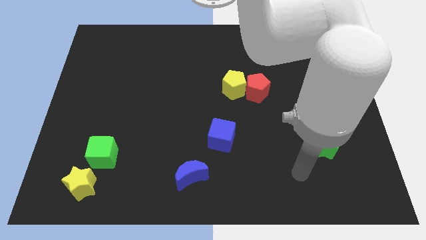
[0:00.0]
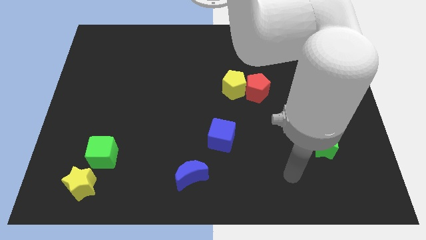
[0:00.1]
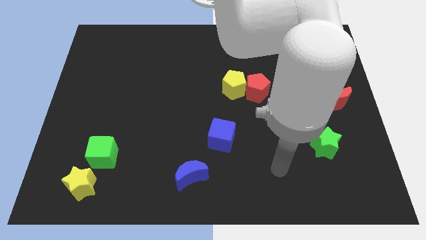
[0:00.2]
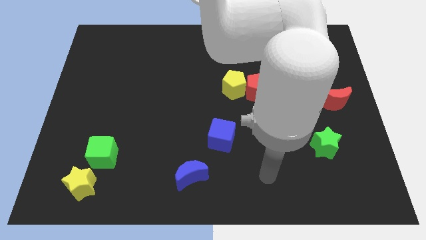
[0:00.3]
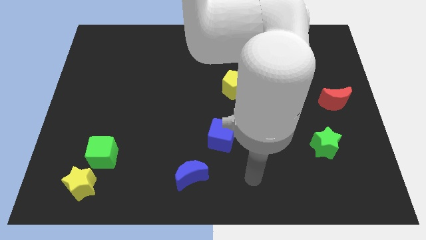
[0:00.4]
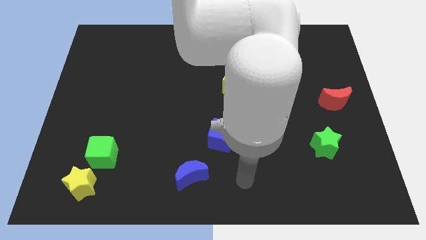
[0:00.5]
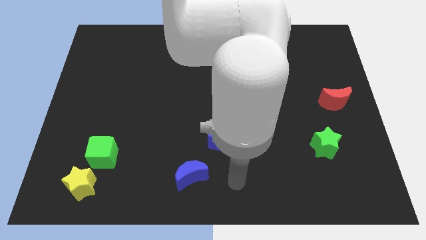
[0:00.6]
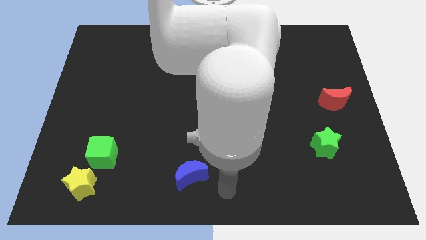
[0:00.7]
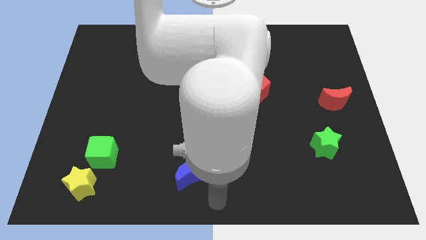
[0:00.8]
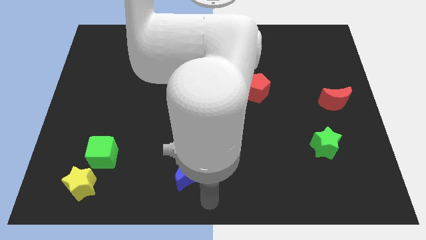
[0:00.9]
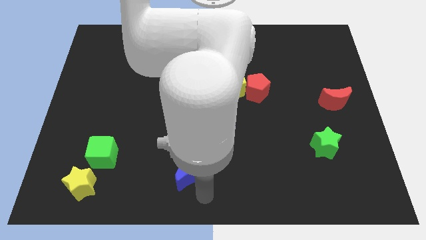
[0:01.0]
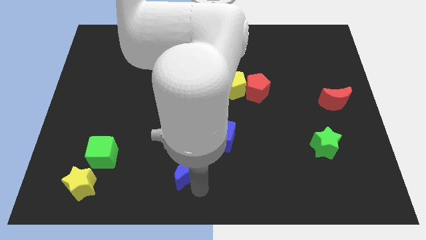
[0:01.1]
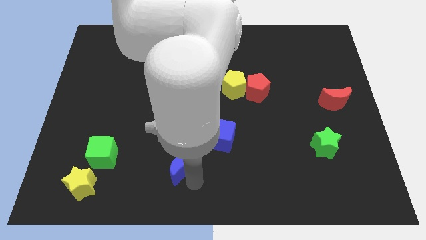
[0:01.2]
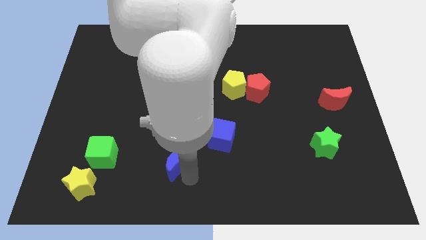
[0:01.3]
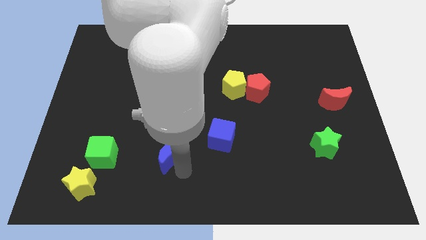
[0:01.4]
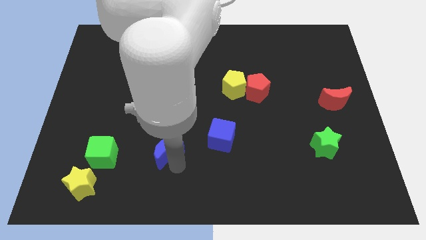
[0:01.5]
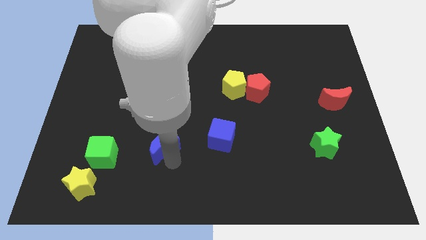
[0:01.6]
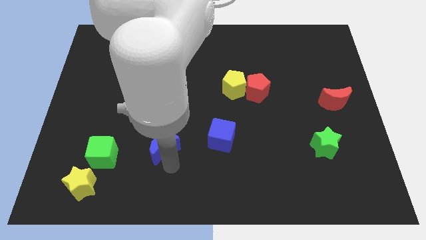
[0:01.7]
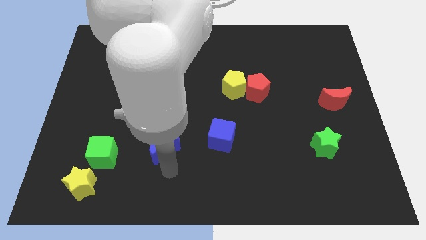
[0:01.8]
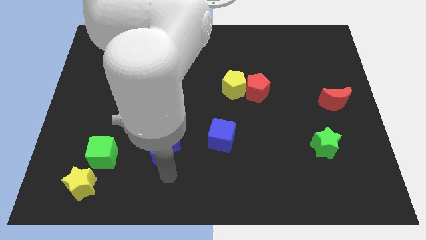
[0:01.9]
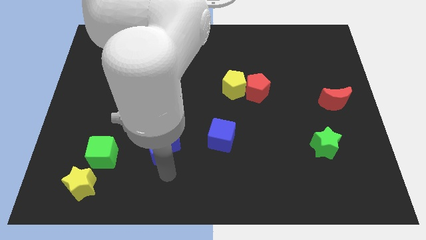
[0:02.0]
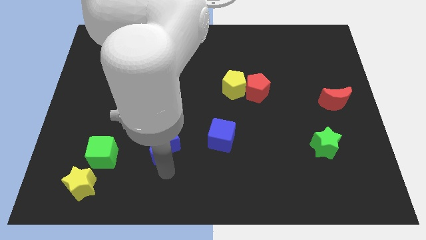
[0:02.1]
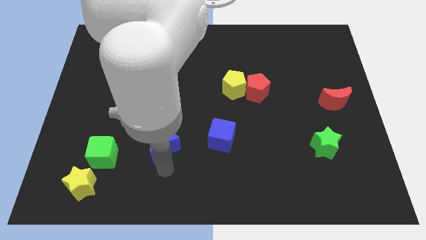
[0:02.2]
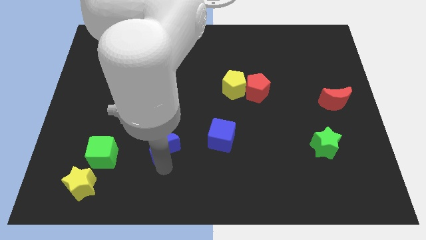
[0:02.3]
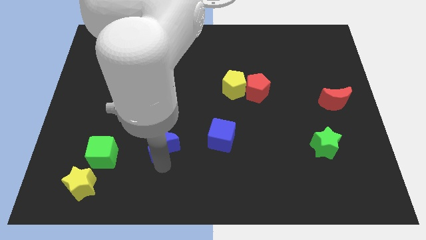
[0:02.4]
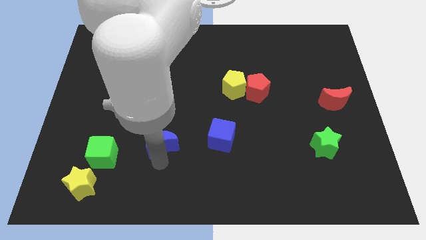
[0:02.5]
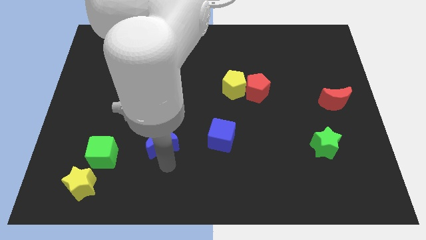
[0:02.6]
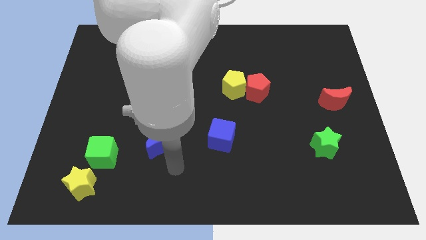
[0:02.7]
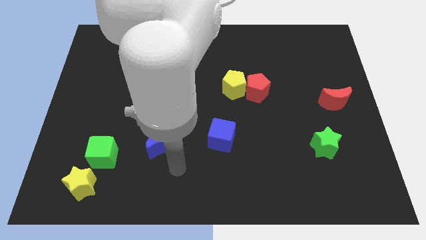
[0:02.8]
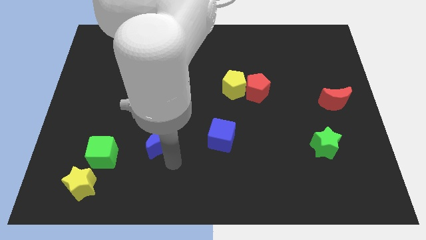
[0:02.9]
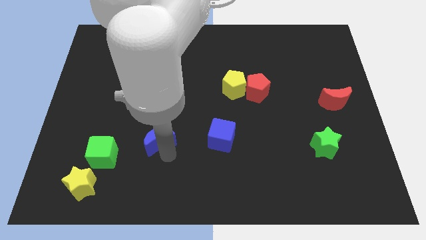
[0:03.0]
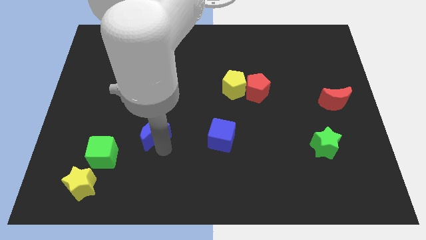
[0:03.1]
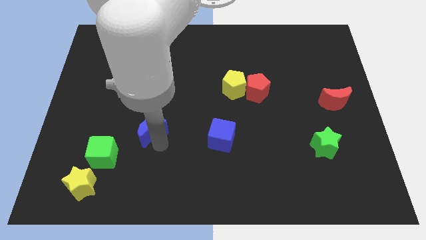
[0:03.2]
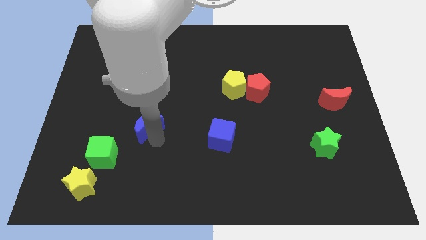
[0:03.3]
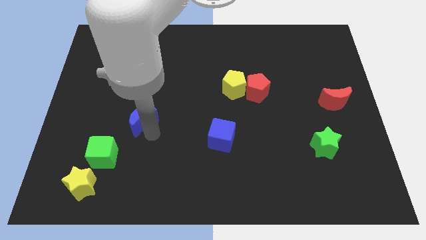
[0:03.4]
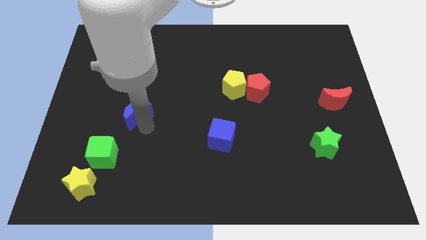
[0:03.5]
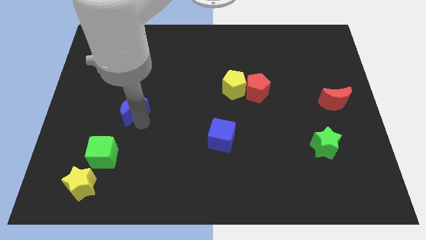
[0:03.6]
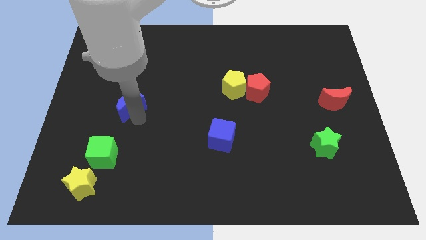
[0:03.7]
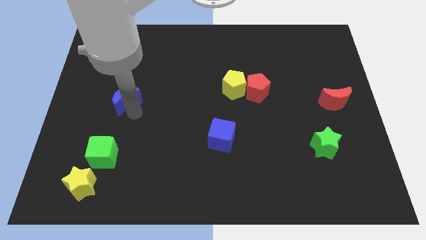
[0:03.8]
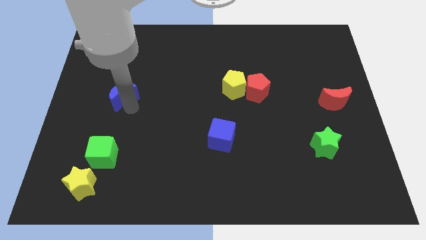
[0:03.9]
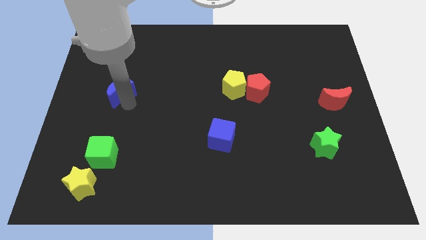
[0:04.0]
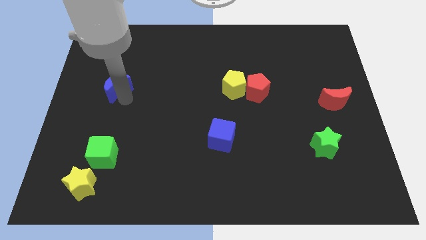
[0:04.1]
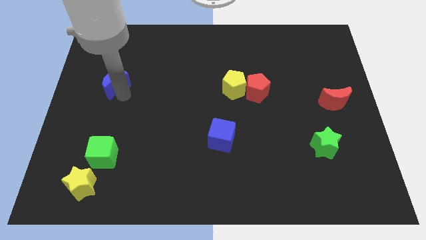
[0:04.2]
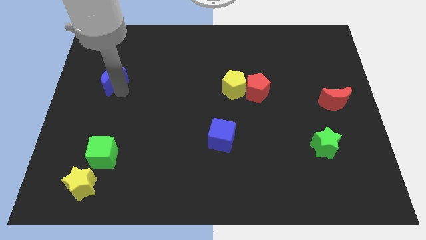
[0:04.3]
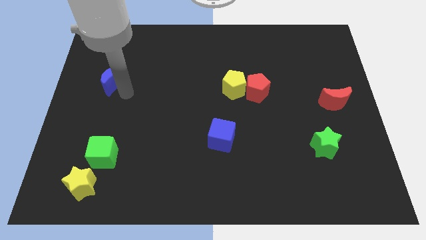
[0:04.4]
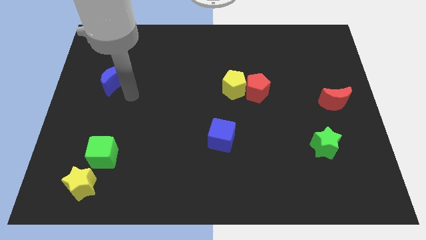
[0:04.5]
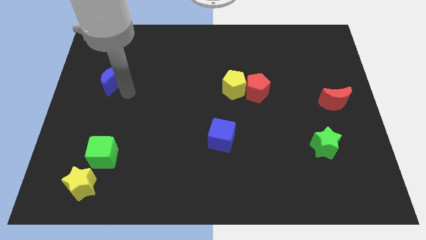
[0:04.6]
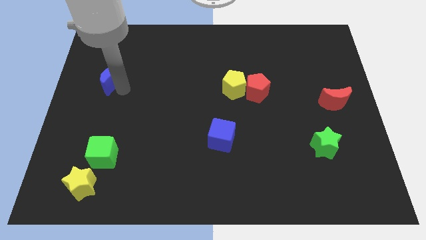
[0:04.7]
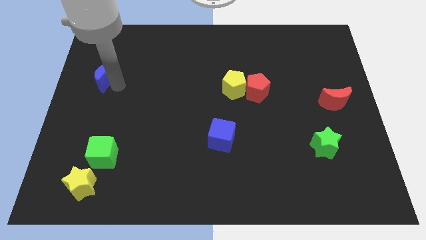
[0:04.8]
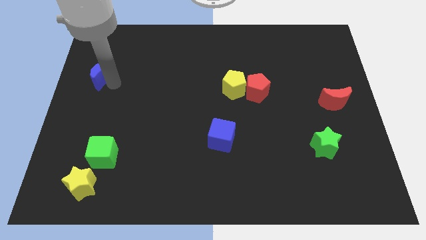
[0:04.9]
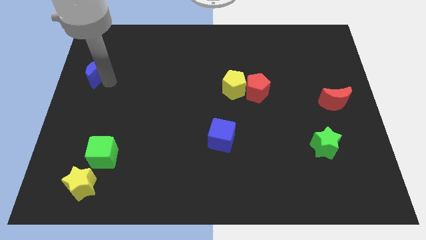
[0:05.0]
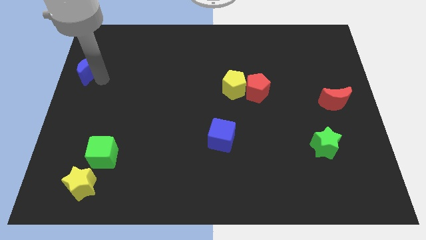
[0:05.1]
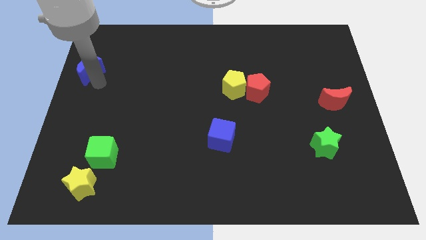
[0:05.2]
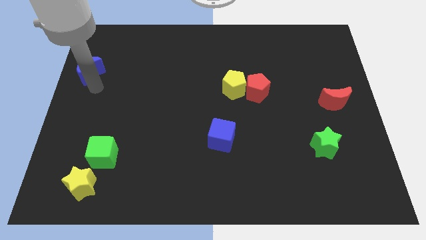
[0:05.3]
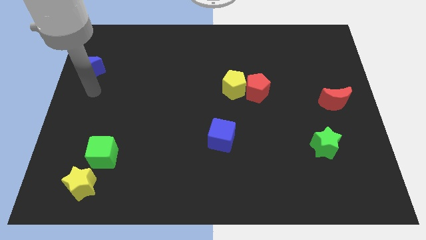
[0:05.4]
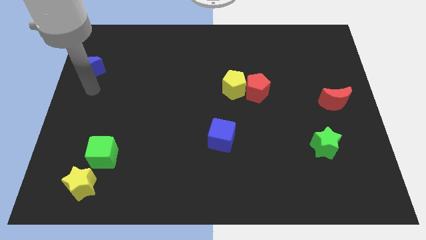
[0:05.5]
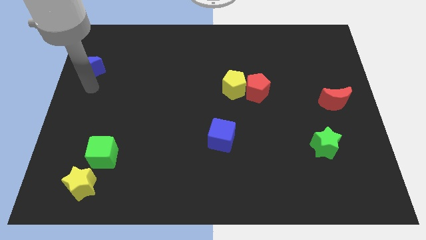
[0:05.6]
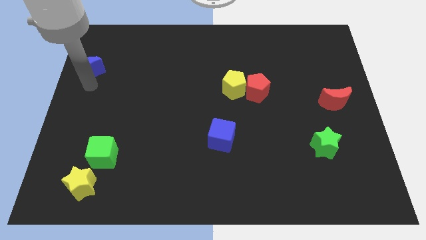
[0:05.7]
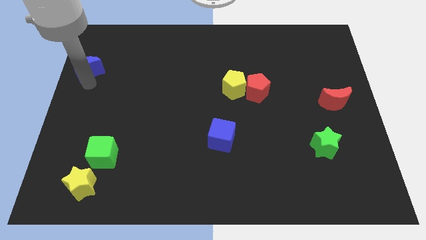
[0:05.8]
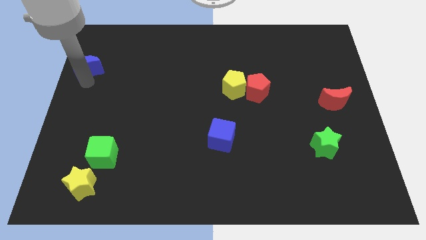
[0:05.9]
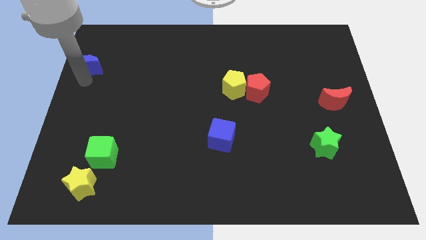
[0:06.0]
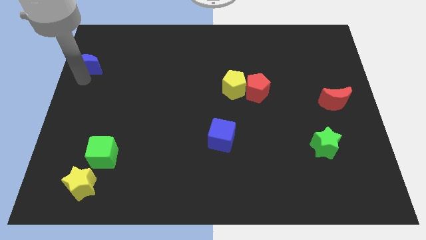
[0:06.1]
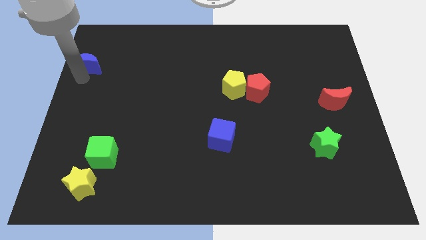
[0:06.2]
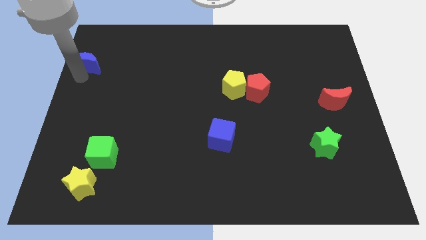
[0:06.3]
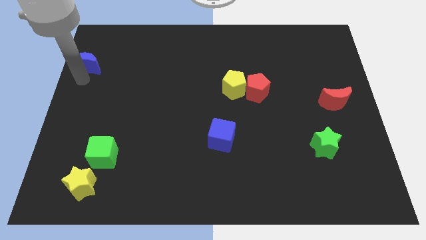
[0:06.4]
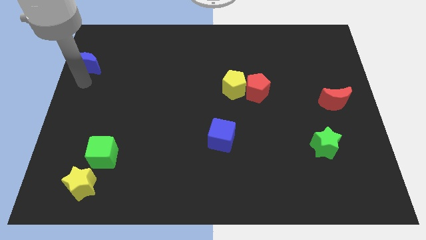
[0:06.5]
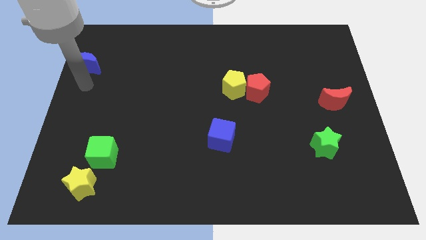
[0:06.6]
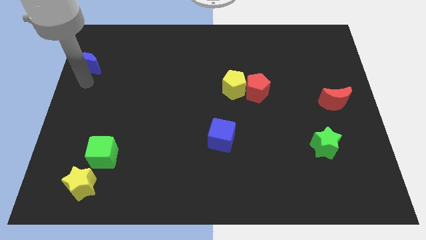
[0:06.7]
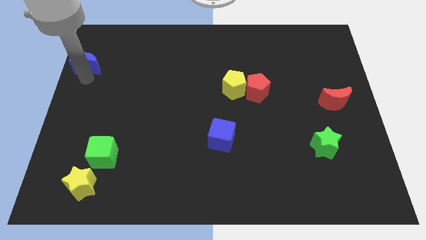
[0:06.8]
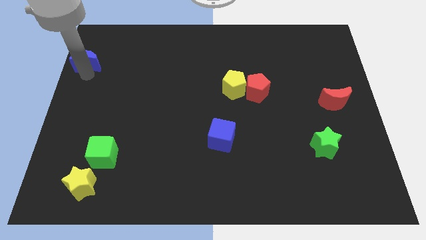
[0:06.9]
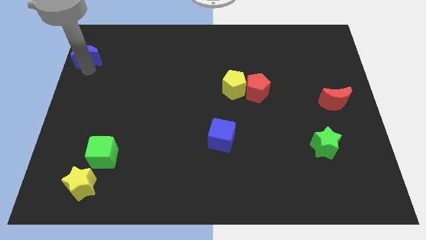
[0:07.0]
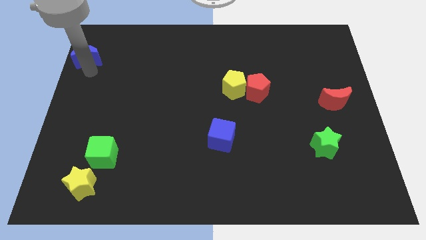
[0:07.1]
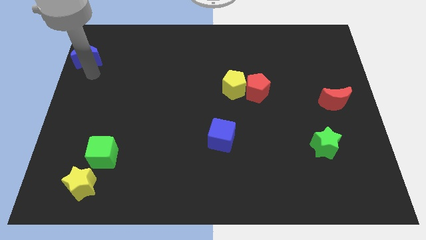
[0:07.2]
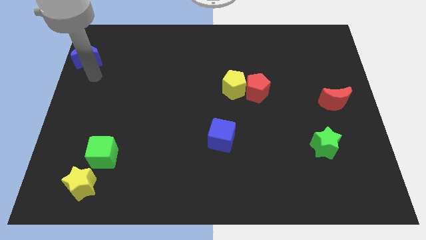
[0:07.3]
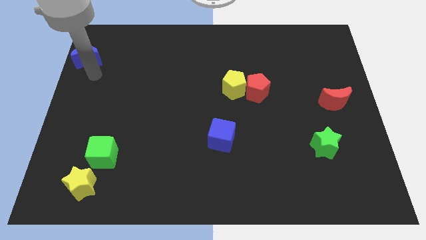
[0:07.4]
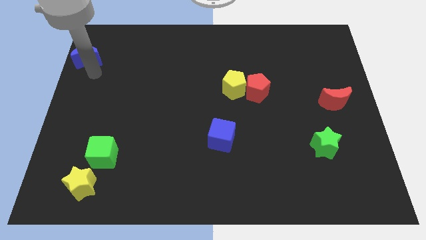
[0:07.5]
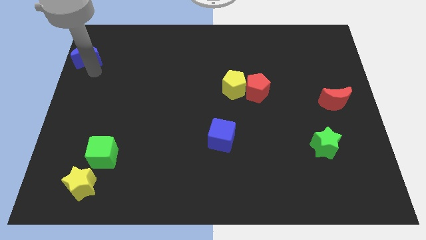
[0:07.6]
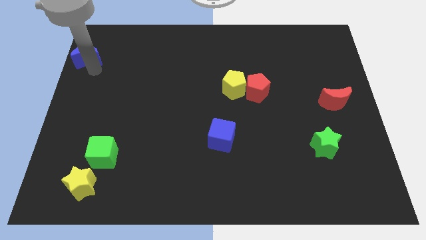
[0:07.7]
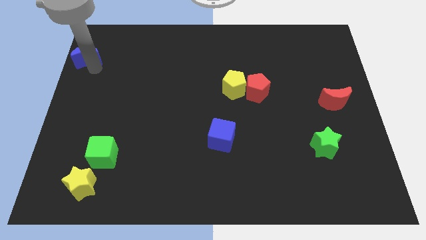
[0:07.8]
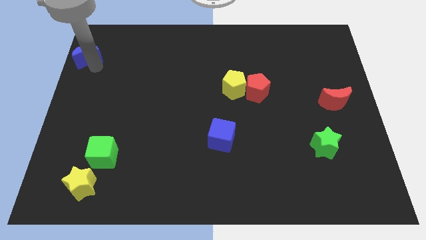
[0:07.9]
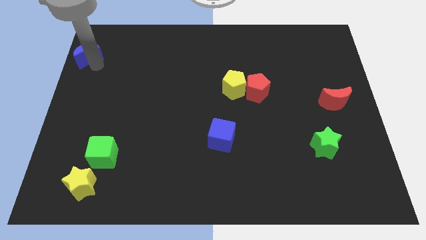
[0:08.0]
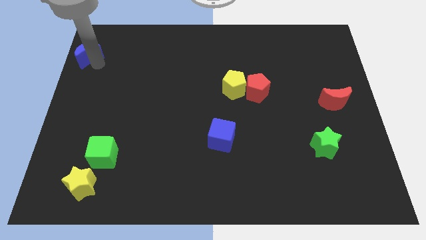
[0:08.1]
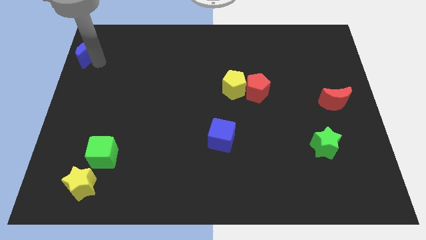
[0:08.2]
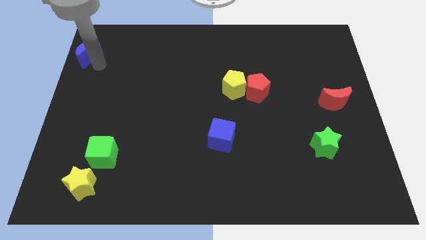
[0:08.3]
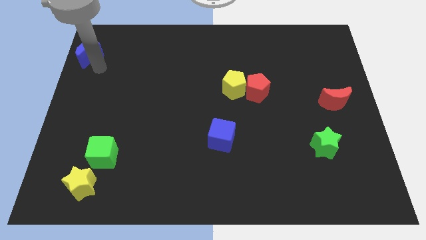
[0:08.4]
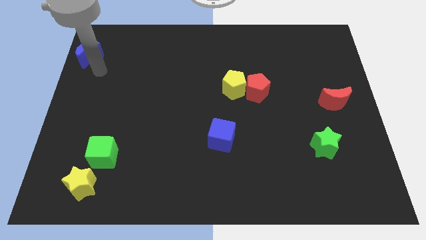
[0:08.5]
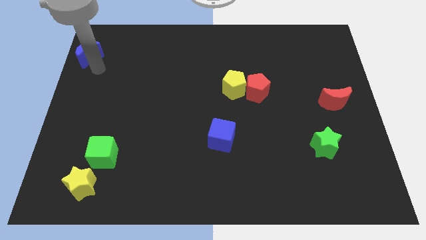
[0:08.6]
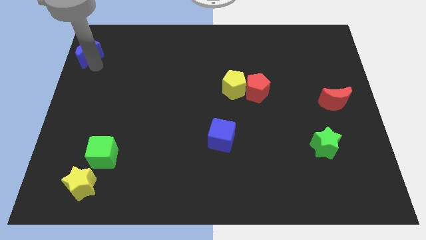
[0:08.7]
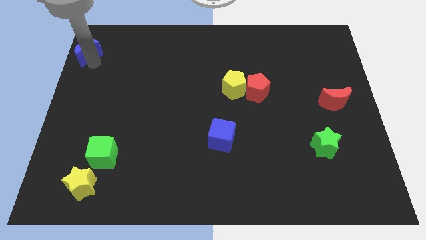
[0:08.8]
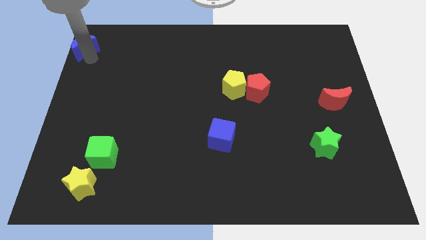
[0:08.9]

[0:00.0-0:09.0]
put the blue moon to the upper left corner
